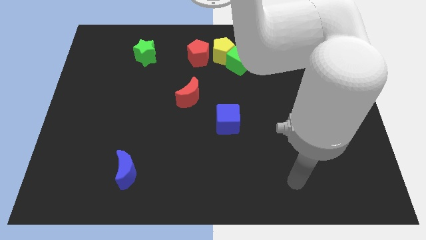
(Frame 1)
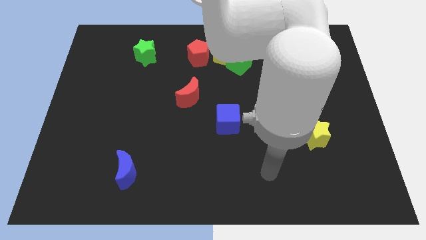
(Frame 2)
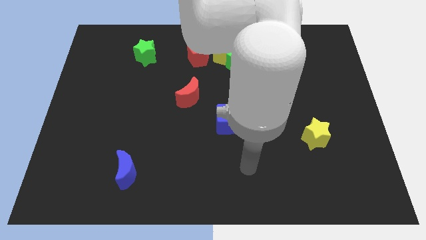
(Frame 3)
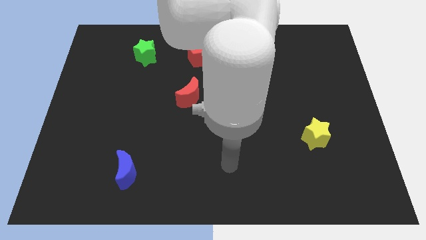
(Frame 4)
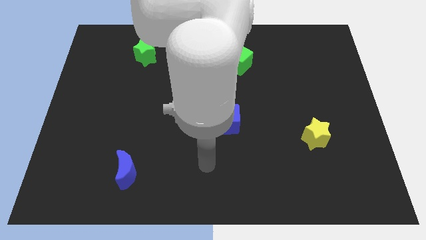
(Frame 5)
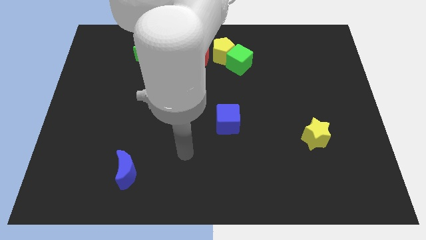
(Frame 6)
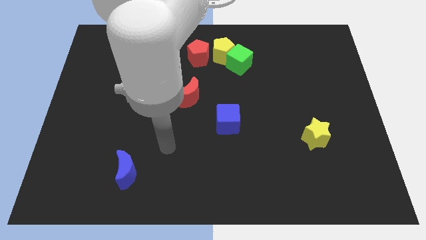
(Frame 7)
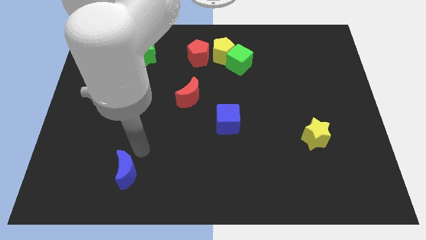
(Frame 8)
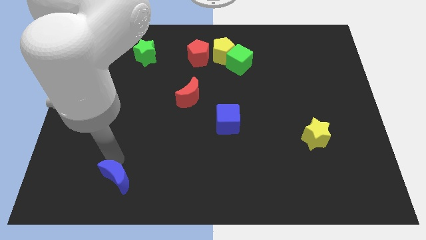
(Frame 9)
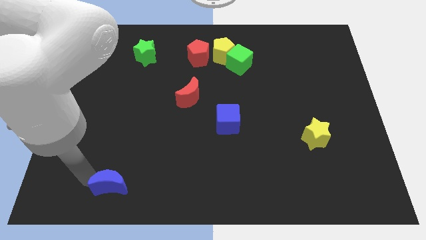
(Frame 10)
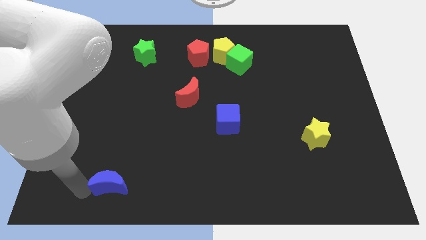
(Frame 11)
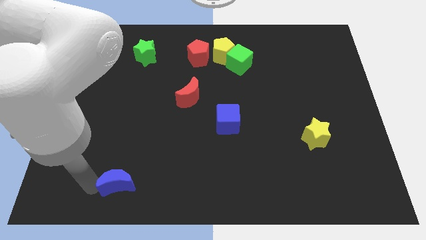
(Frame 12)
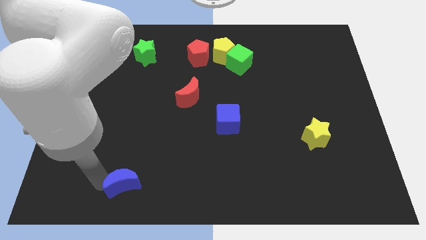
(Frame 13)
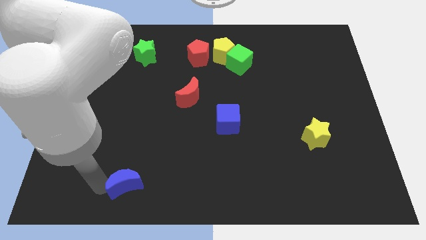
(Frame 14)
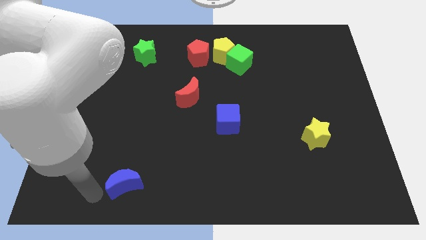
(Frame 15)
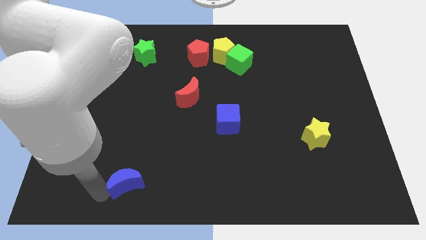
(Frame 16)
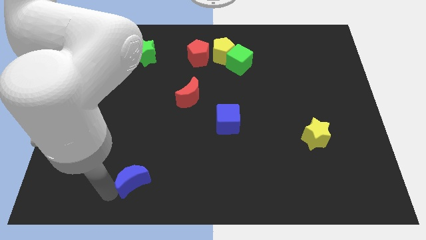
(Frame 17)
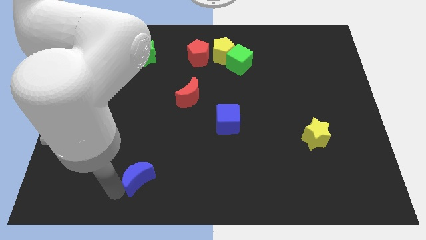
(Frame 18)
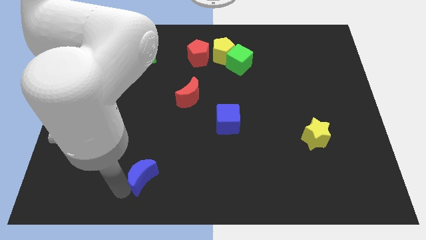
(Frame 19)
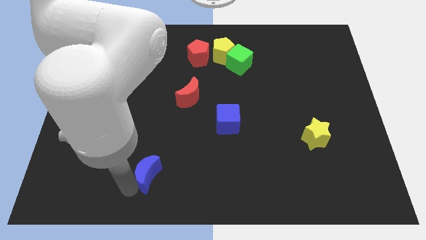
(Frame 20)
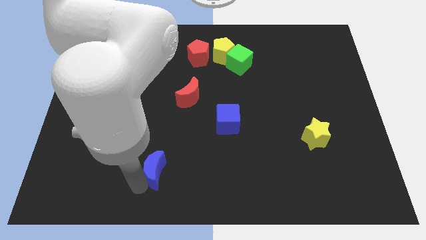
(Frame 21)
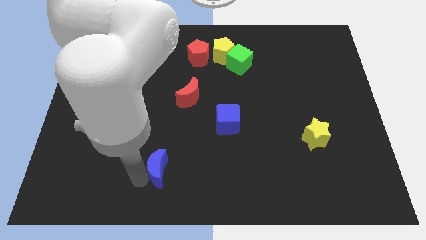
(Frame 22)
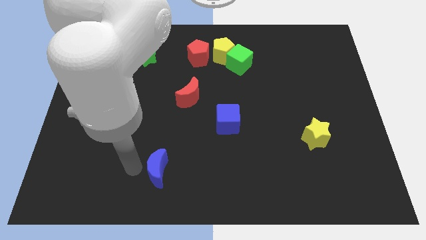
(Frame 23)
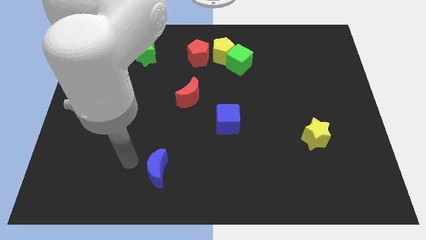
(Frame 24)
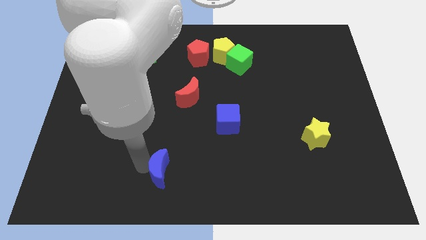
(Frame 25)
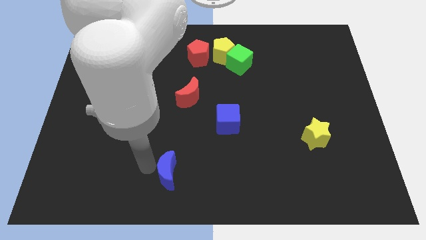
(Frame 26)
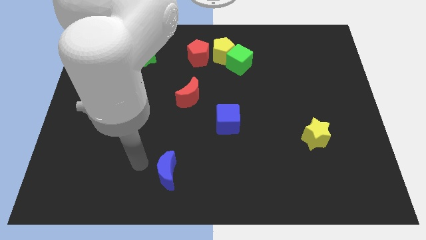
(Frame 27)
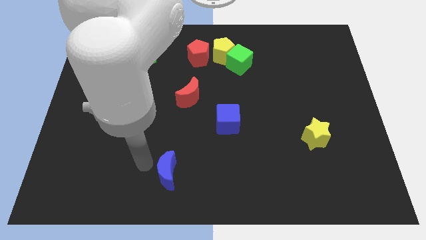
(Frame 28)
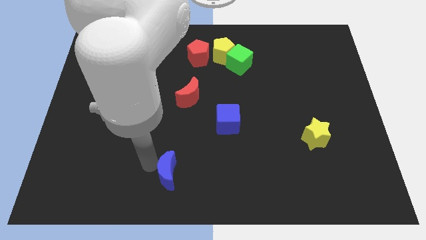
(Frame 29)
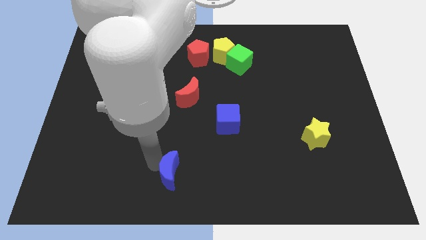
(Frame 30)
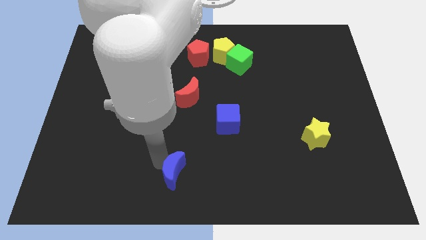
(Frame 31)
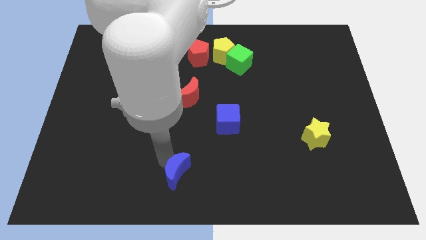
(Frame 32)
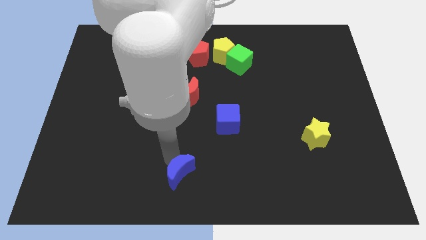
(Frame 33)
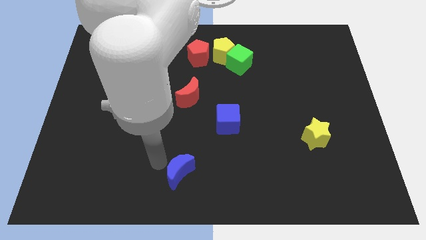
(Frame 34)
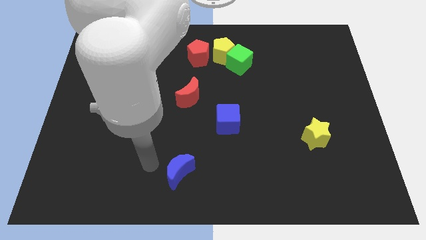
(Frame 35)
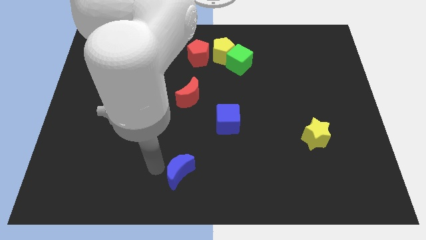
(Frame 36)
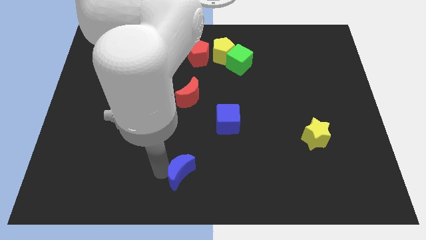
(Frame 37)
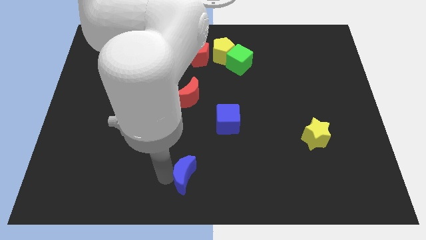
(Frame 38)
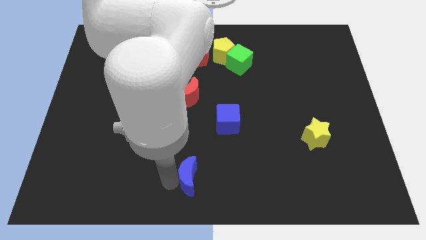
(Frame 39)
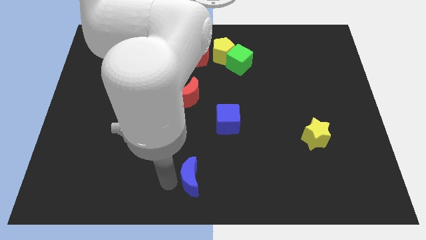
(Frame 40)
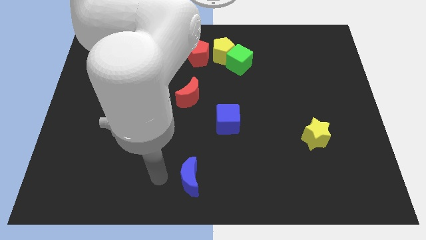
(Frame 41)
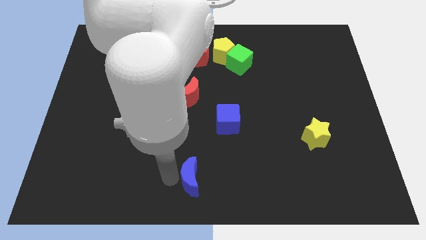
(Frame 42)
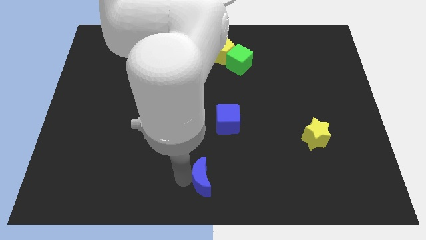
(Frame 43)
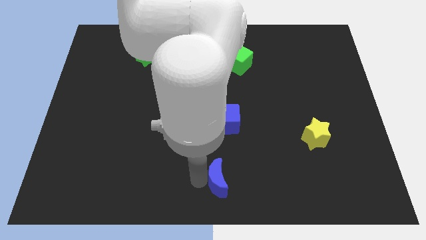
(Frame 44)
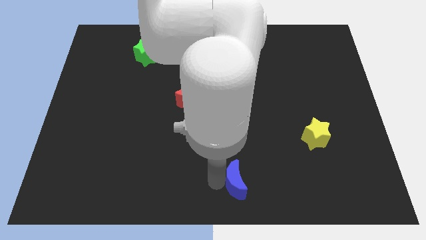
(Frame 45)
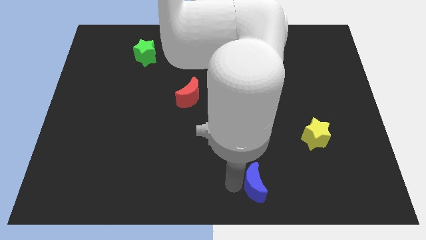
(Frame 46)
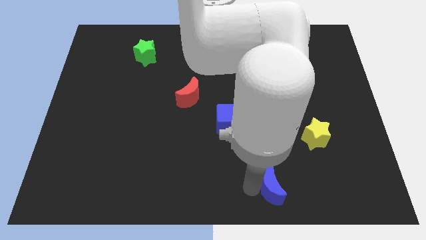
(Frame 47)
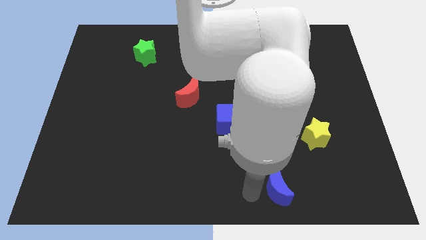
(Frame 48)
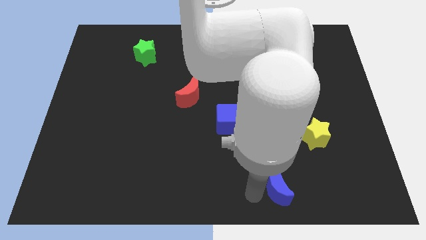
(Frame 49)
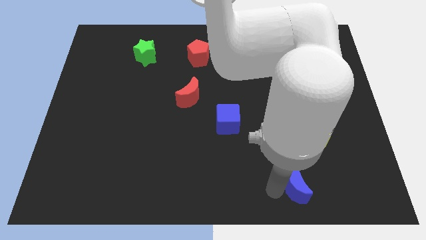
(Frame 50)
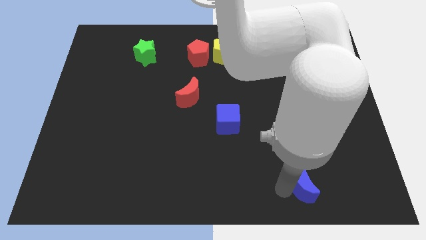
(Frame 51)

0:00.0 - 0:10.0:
slide the blue moon below the yellow star

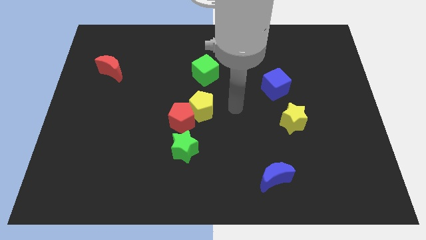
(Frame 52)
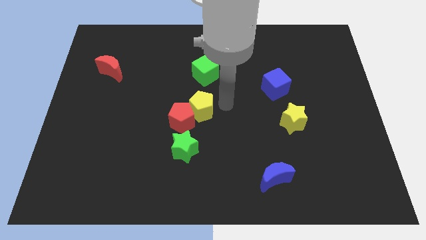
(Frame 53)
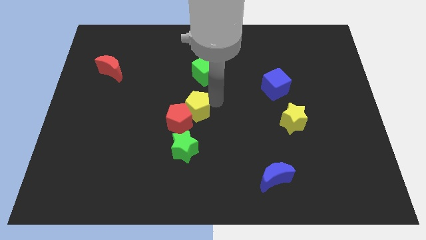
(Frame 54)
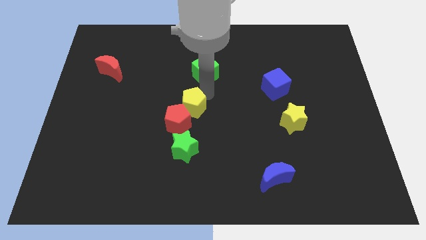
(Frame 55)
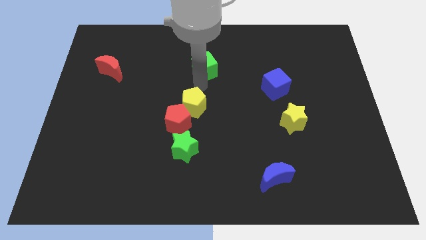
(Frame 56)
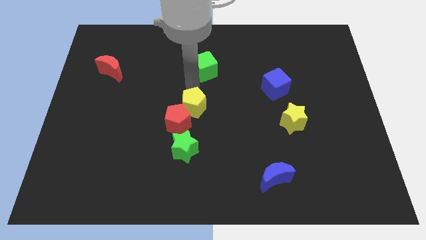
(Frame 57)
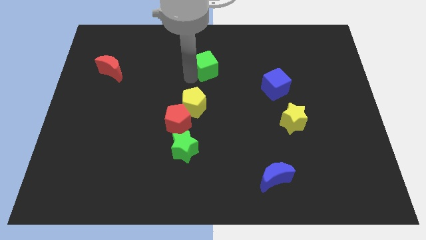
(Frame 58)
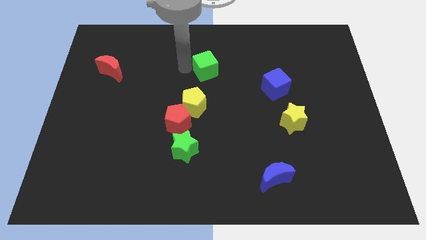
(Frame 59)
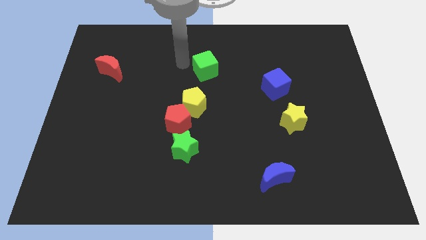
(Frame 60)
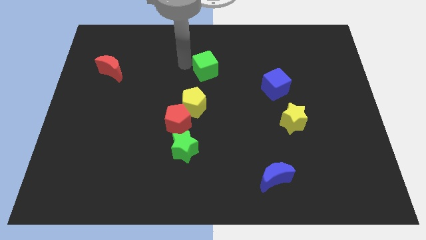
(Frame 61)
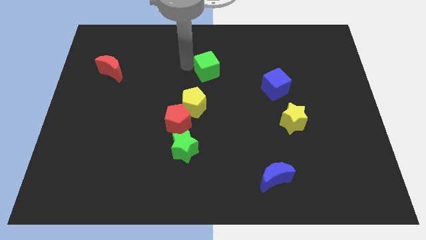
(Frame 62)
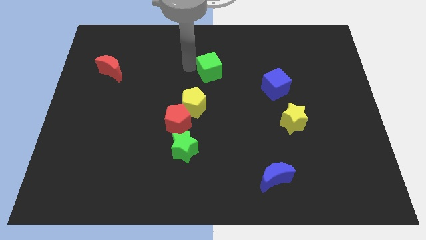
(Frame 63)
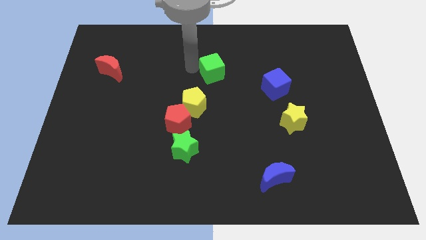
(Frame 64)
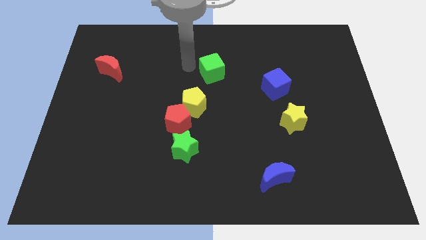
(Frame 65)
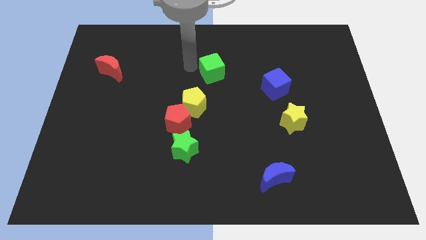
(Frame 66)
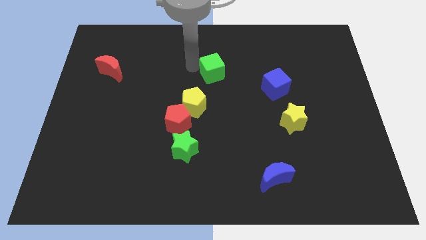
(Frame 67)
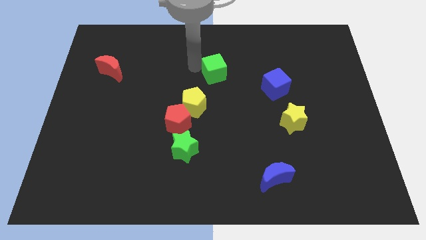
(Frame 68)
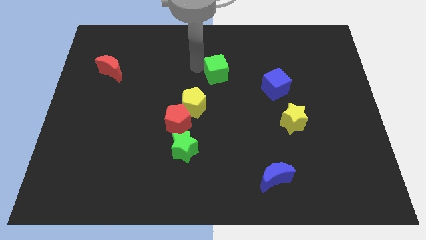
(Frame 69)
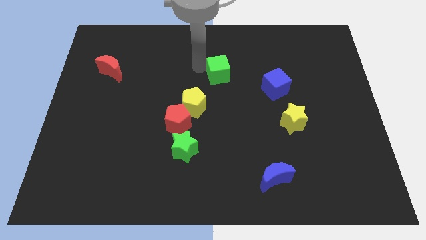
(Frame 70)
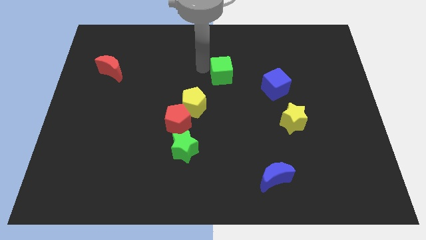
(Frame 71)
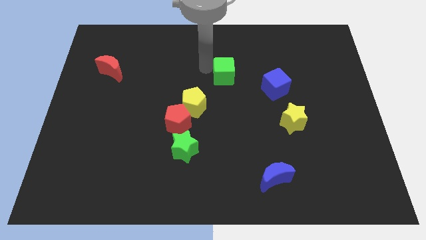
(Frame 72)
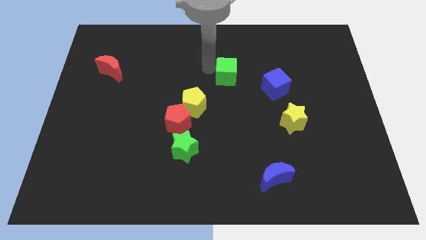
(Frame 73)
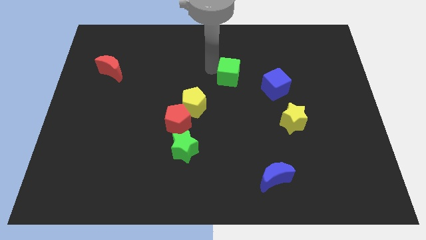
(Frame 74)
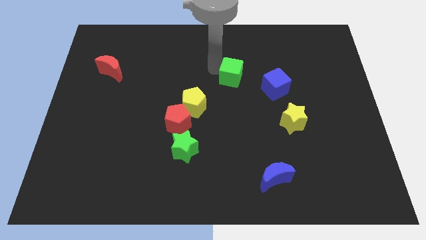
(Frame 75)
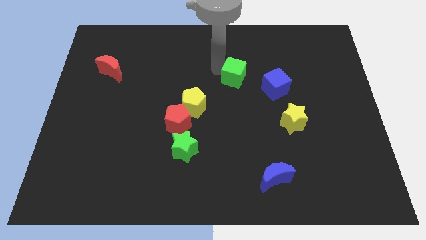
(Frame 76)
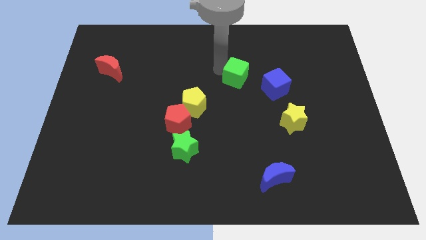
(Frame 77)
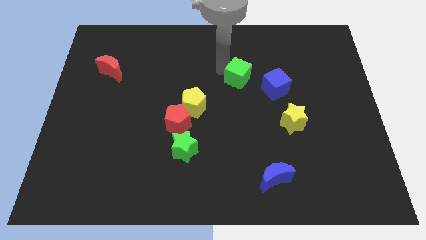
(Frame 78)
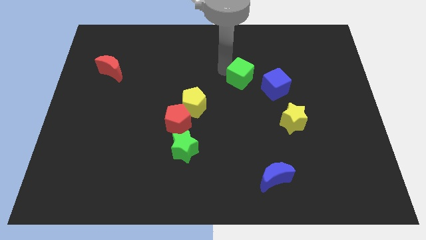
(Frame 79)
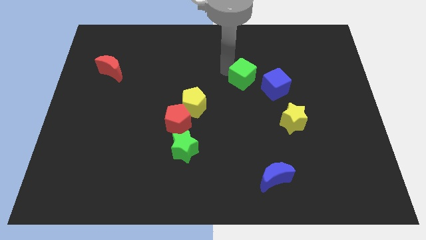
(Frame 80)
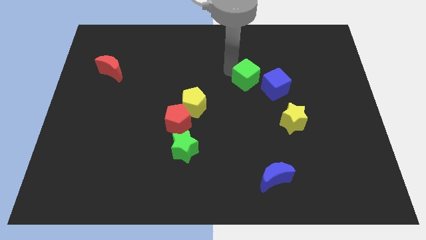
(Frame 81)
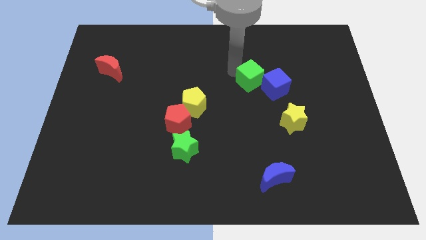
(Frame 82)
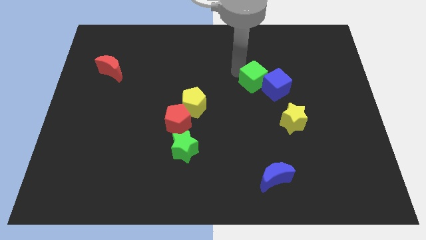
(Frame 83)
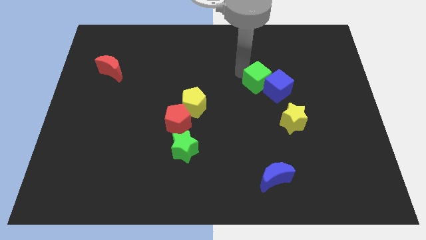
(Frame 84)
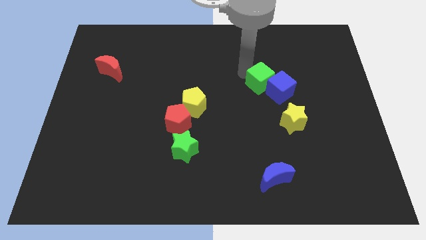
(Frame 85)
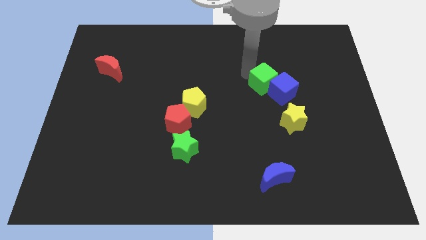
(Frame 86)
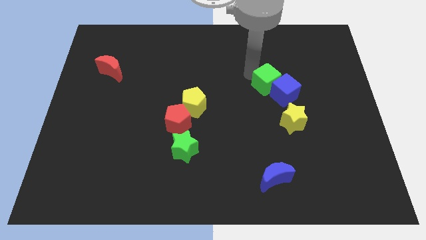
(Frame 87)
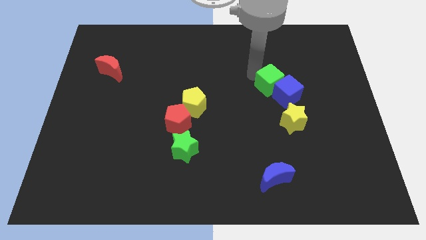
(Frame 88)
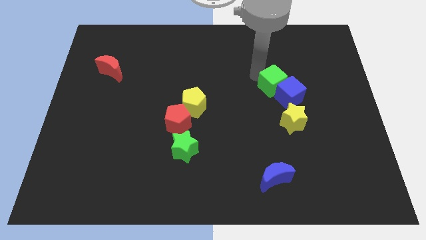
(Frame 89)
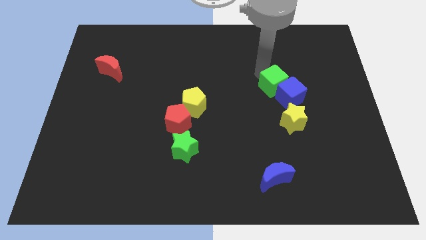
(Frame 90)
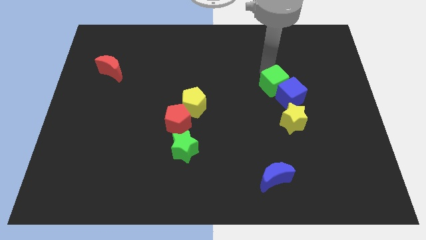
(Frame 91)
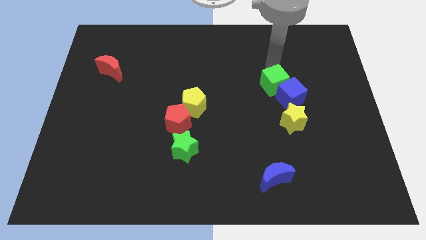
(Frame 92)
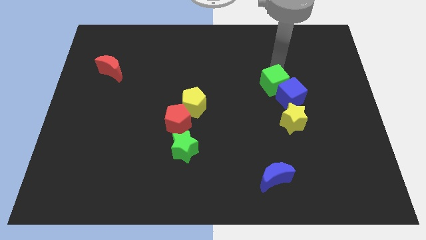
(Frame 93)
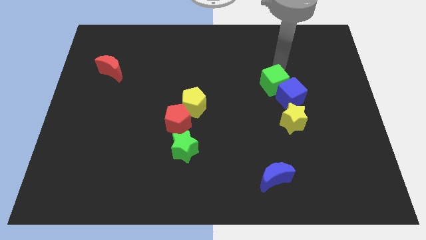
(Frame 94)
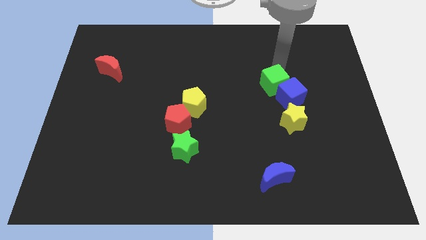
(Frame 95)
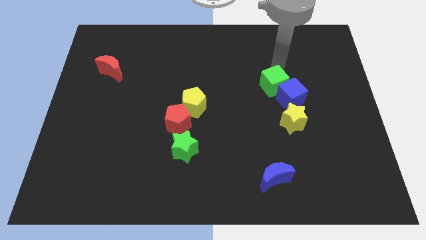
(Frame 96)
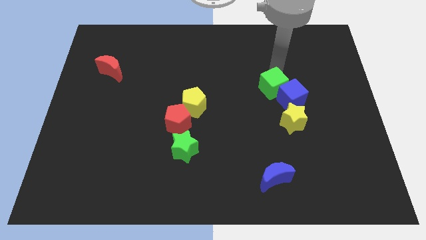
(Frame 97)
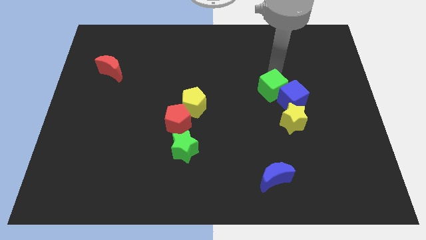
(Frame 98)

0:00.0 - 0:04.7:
push the green cube to the top left side of the yellow star
